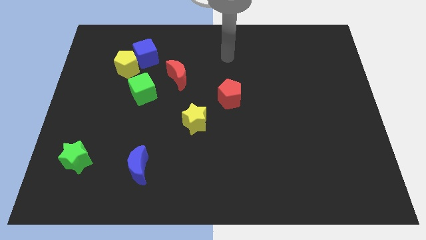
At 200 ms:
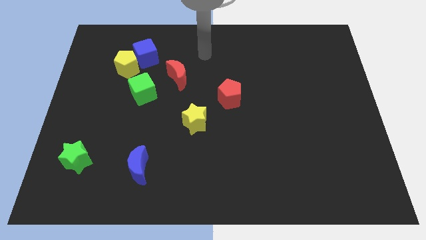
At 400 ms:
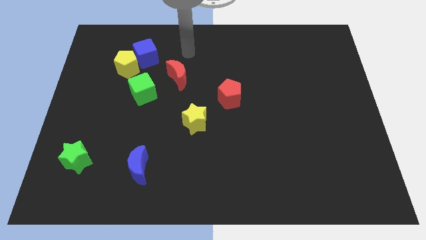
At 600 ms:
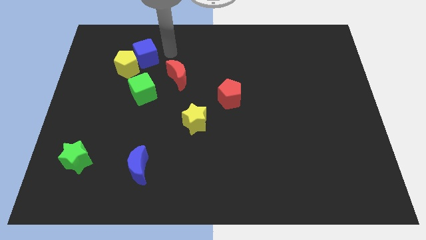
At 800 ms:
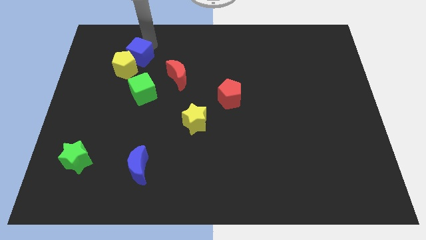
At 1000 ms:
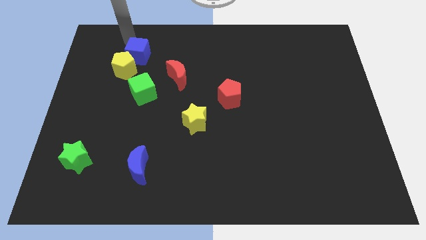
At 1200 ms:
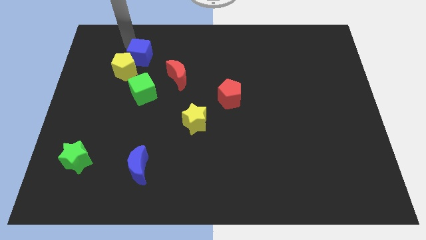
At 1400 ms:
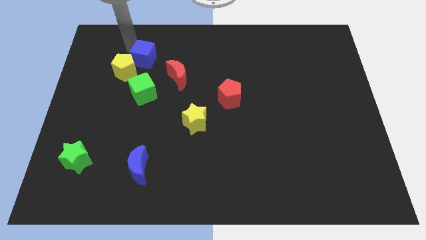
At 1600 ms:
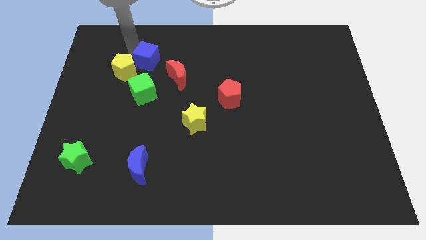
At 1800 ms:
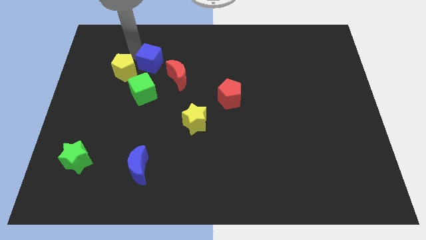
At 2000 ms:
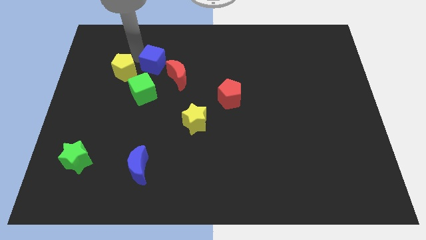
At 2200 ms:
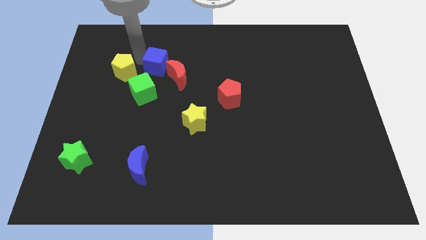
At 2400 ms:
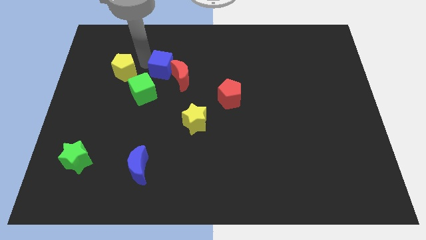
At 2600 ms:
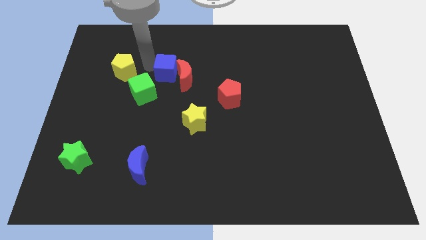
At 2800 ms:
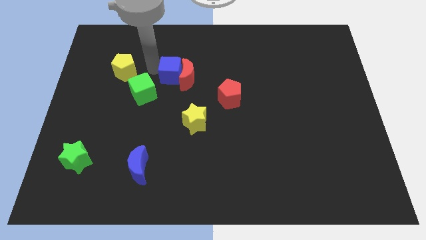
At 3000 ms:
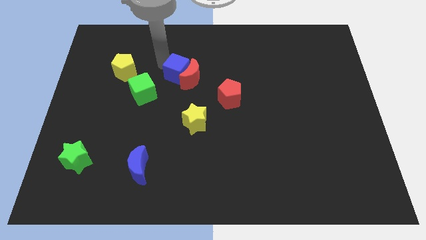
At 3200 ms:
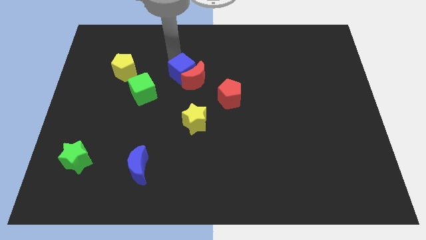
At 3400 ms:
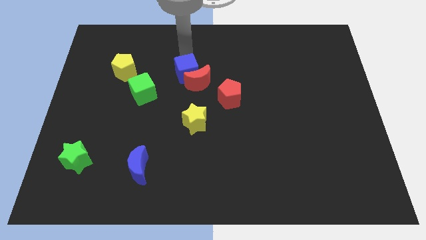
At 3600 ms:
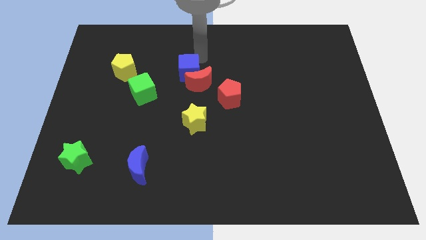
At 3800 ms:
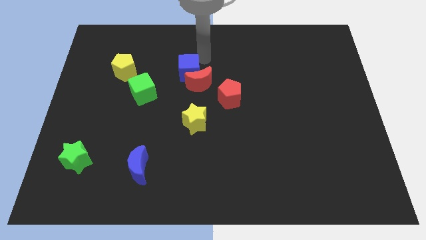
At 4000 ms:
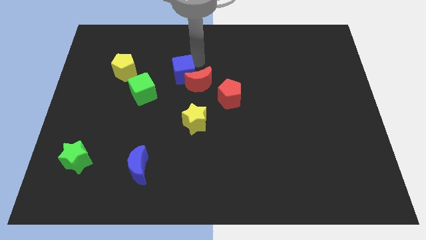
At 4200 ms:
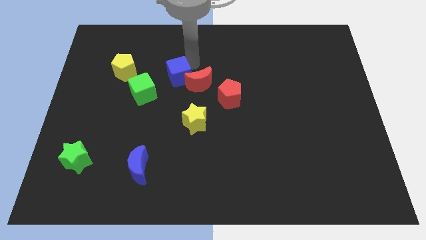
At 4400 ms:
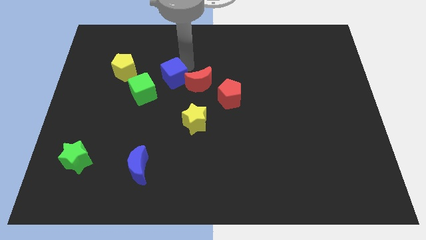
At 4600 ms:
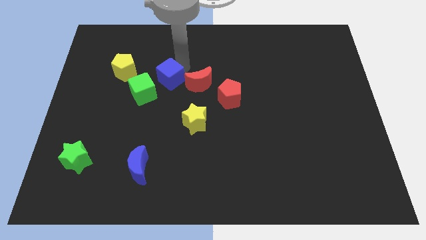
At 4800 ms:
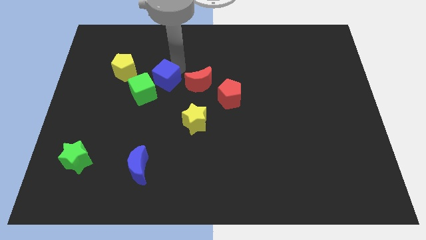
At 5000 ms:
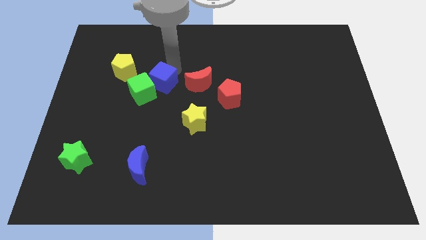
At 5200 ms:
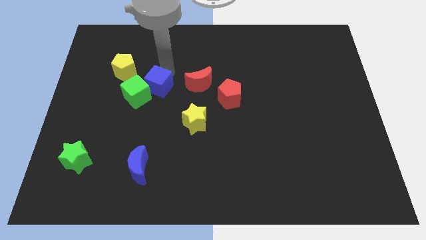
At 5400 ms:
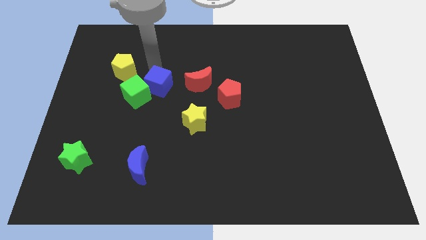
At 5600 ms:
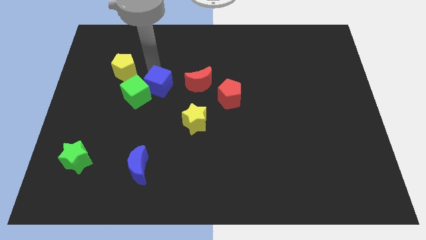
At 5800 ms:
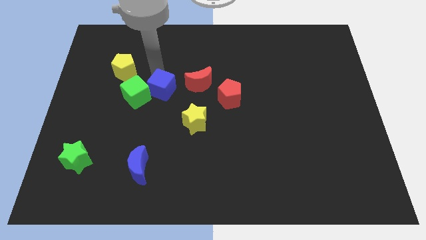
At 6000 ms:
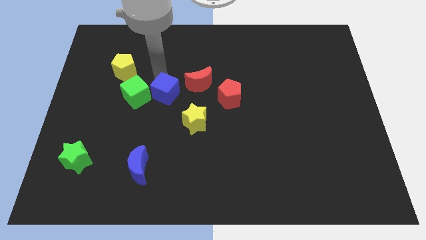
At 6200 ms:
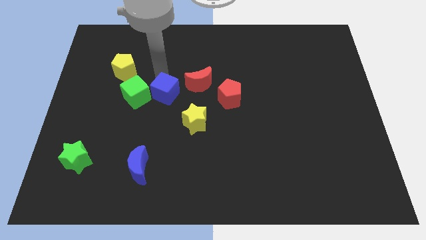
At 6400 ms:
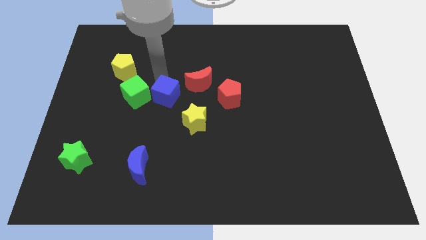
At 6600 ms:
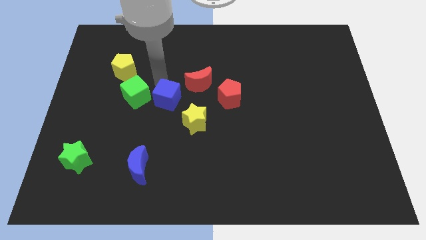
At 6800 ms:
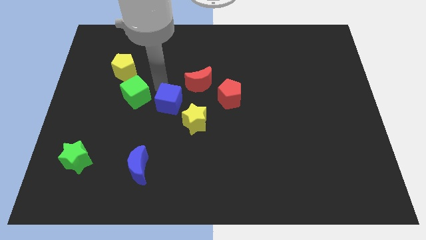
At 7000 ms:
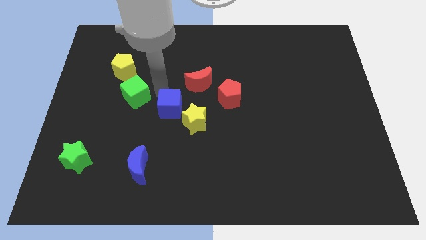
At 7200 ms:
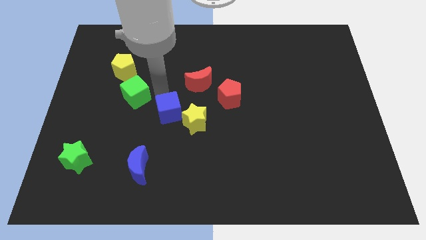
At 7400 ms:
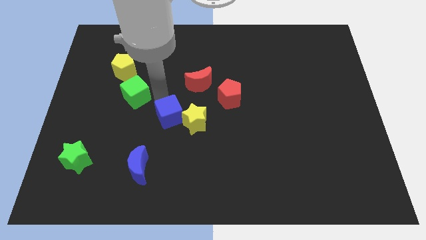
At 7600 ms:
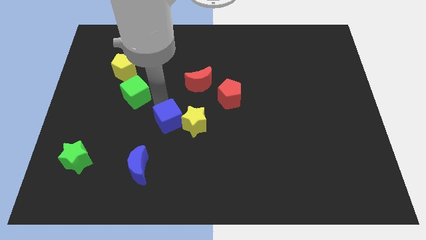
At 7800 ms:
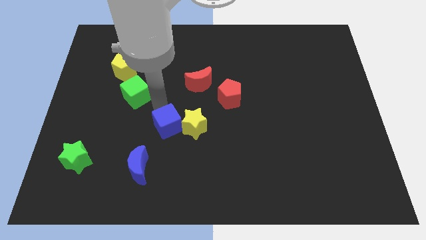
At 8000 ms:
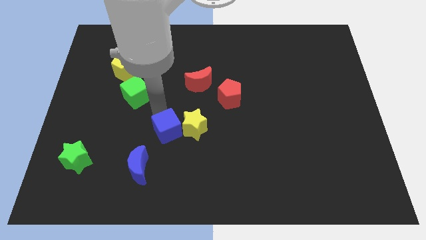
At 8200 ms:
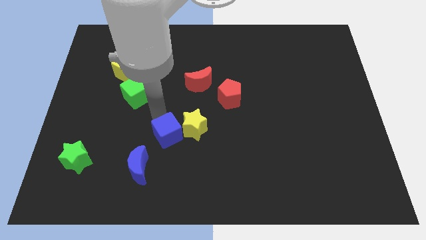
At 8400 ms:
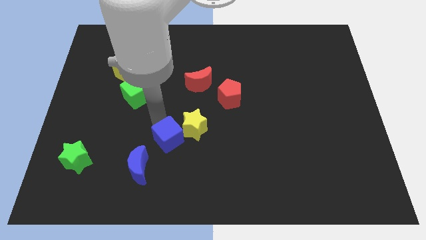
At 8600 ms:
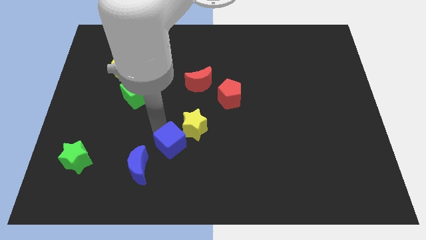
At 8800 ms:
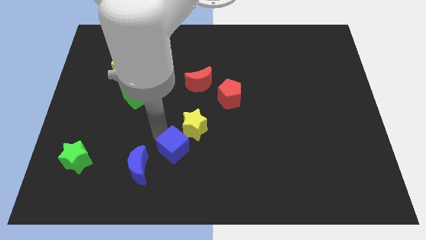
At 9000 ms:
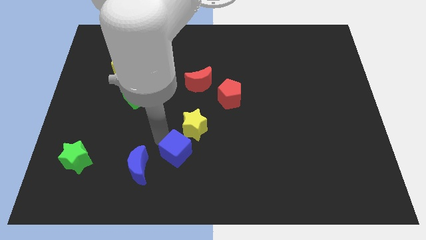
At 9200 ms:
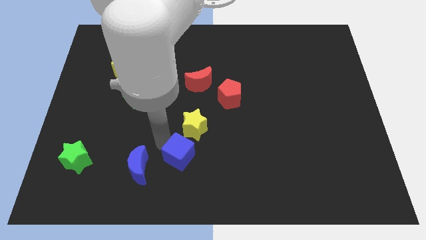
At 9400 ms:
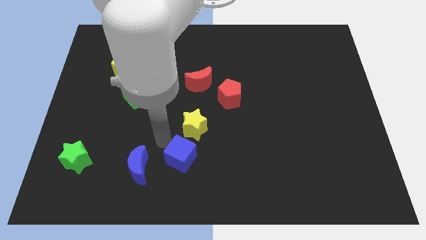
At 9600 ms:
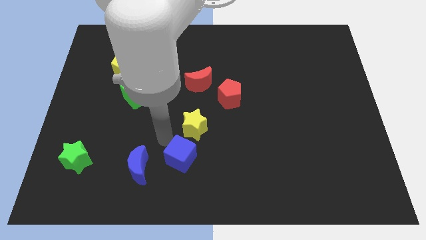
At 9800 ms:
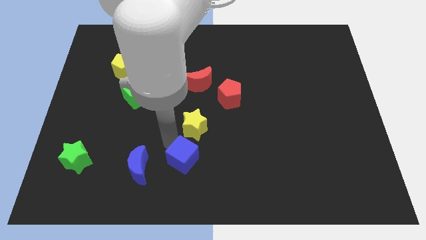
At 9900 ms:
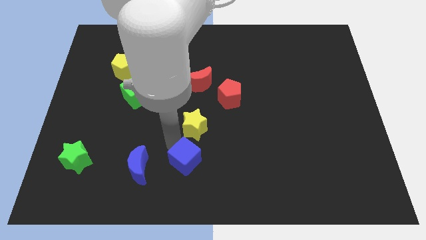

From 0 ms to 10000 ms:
move the blue cube to the bottom side

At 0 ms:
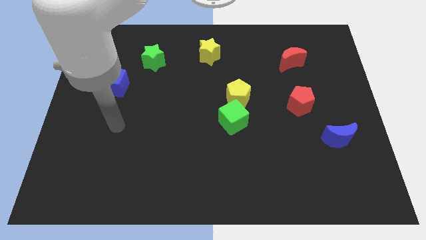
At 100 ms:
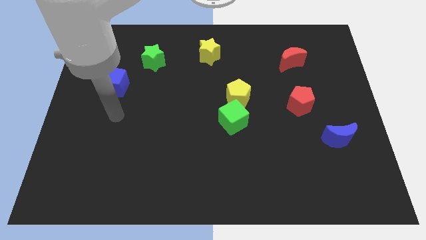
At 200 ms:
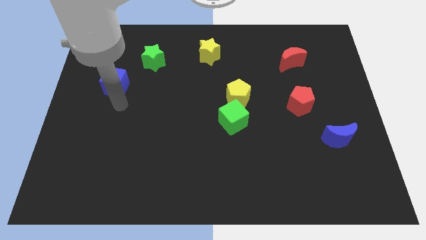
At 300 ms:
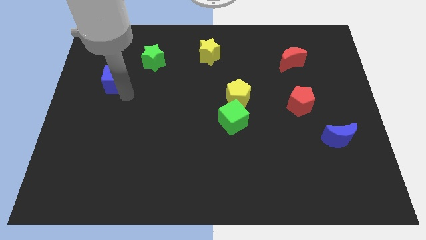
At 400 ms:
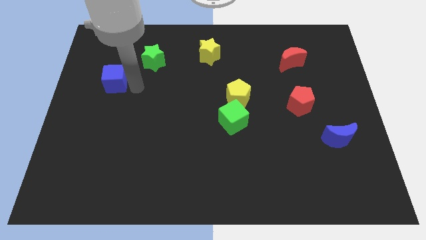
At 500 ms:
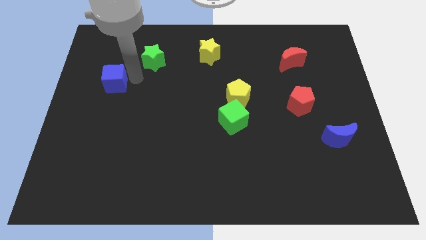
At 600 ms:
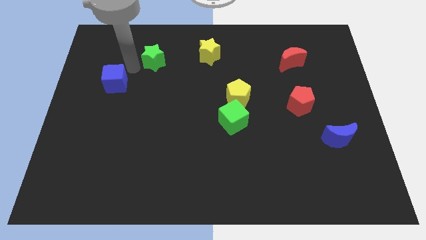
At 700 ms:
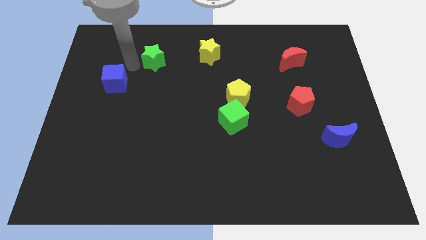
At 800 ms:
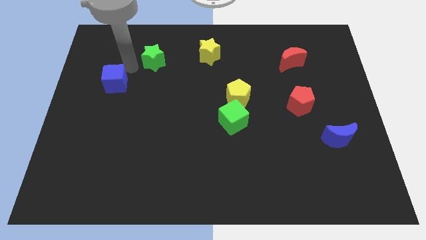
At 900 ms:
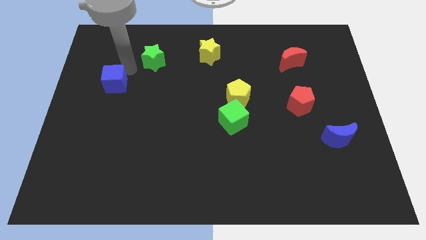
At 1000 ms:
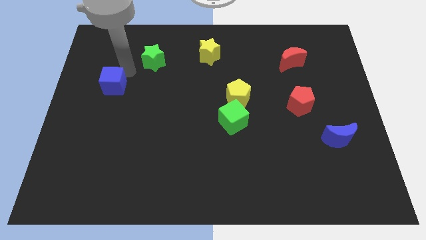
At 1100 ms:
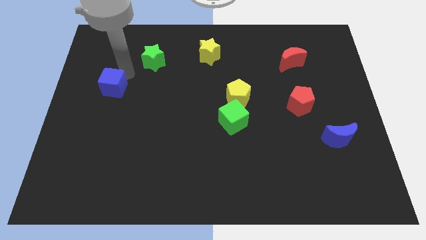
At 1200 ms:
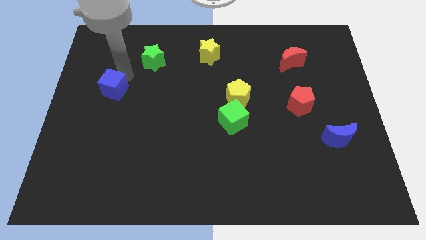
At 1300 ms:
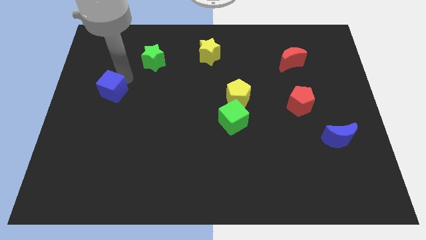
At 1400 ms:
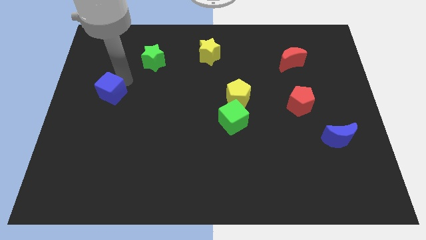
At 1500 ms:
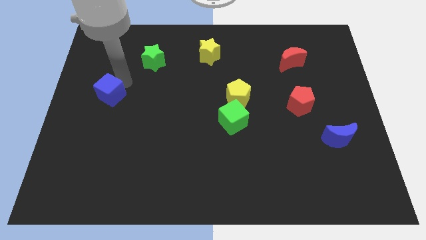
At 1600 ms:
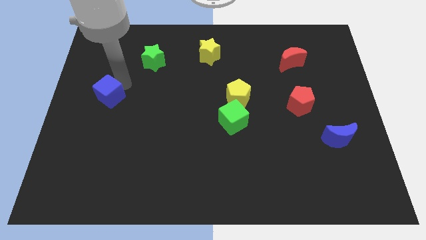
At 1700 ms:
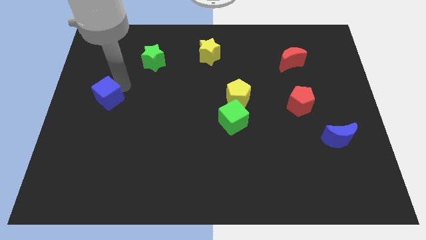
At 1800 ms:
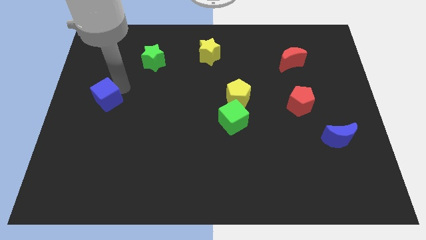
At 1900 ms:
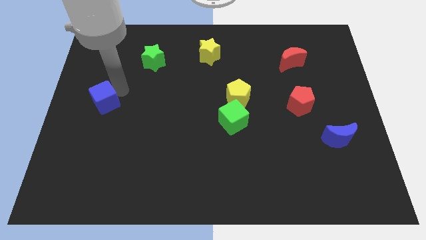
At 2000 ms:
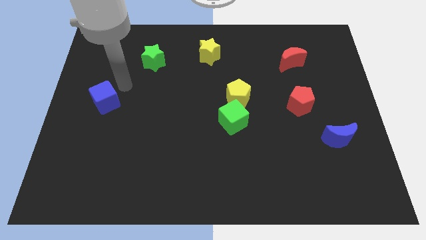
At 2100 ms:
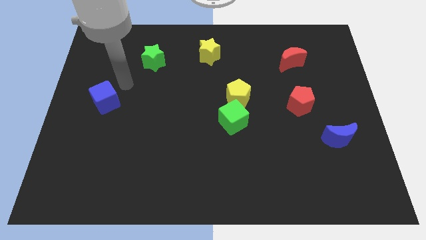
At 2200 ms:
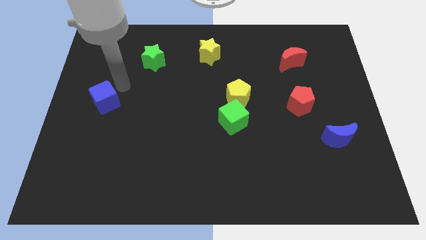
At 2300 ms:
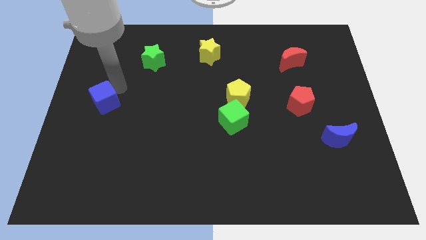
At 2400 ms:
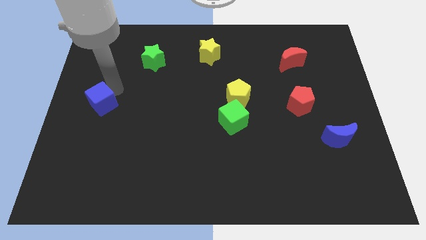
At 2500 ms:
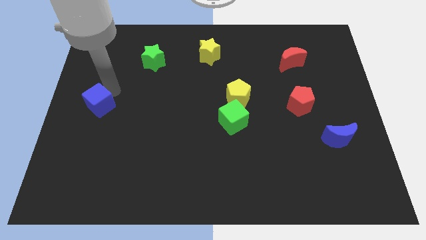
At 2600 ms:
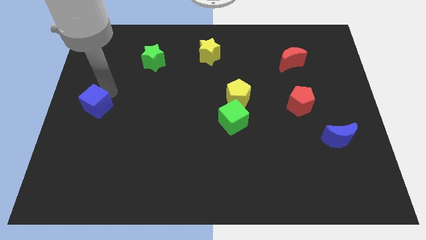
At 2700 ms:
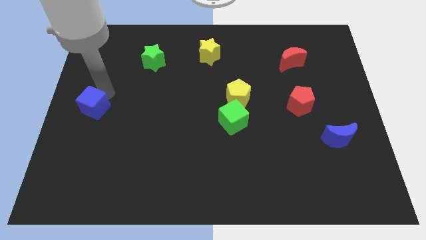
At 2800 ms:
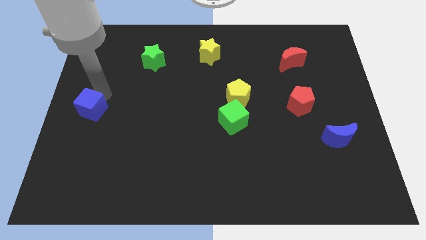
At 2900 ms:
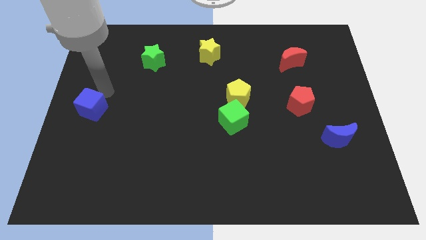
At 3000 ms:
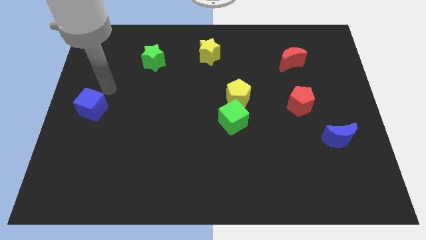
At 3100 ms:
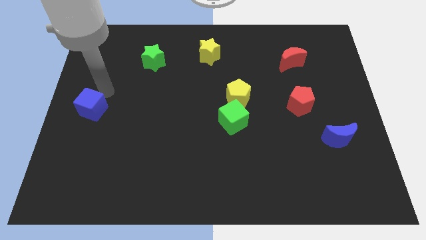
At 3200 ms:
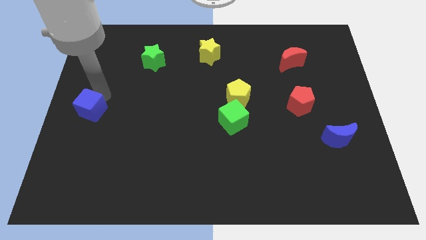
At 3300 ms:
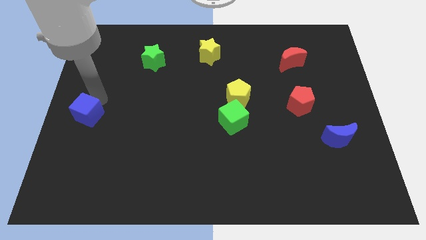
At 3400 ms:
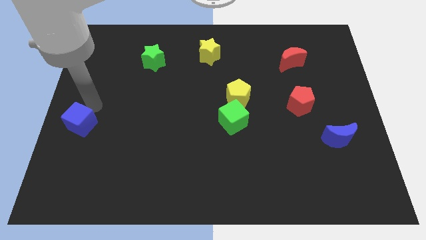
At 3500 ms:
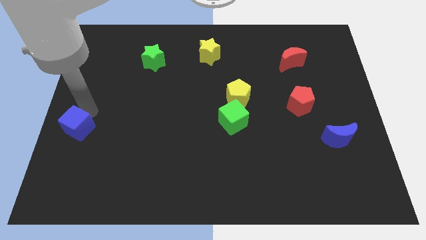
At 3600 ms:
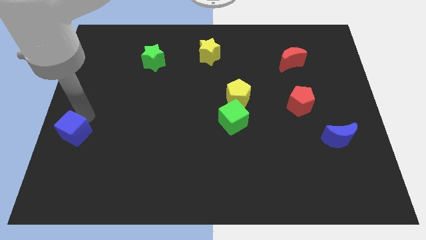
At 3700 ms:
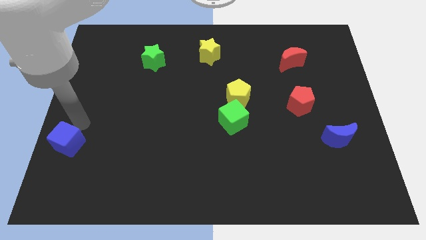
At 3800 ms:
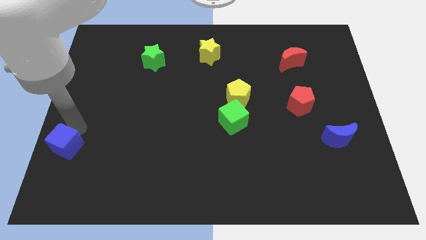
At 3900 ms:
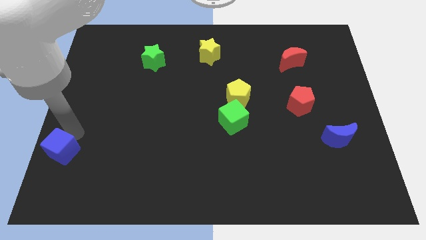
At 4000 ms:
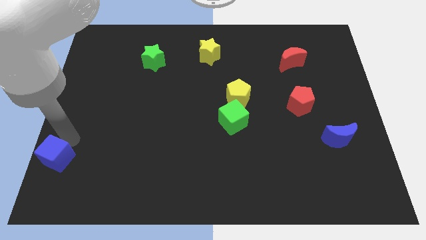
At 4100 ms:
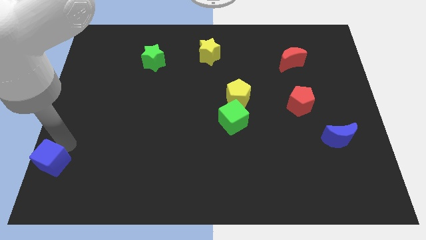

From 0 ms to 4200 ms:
put the blue cube to the lower left corner
